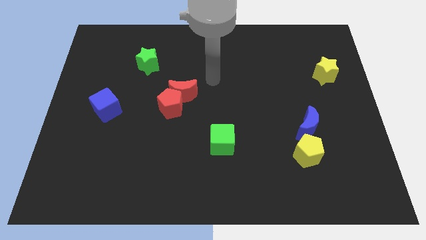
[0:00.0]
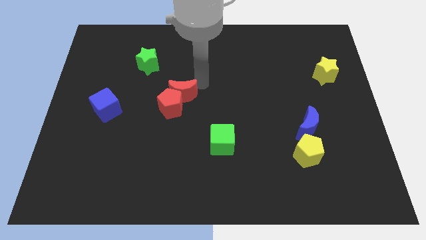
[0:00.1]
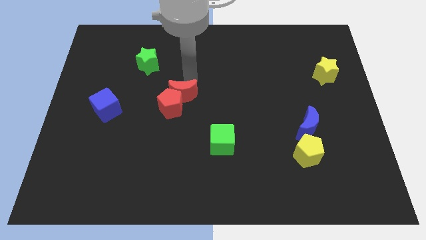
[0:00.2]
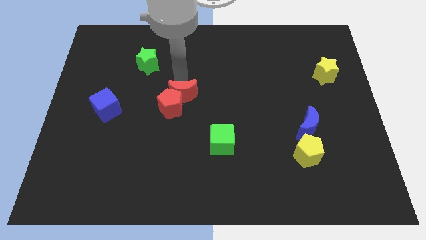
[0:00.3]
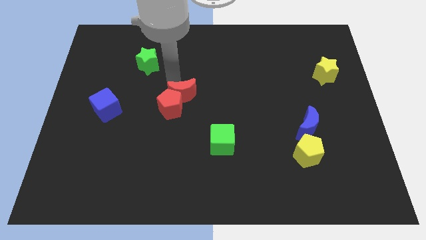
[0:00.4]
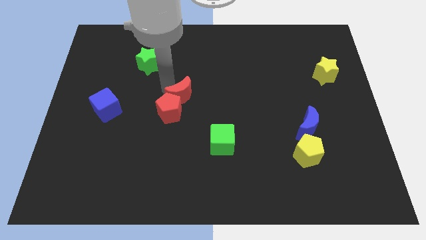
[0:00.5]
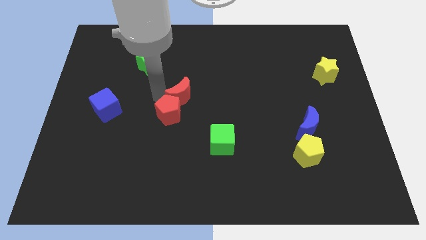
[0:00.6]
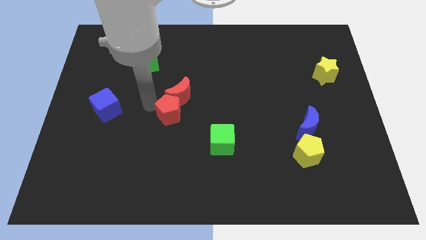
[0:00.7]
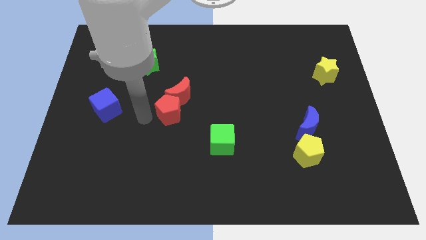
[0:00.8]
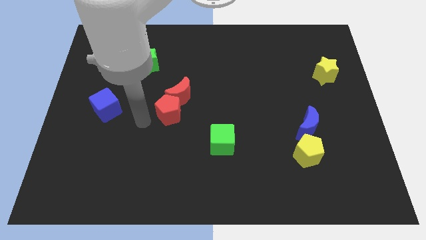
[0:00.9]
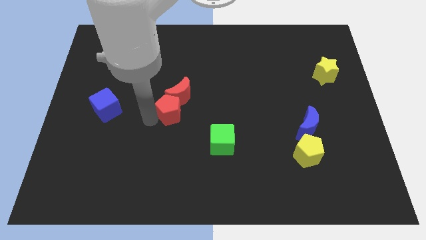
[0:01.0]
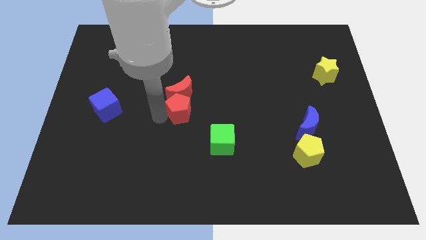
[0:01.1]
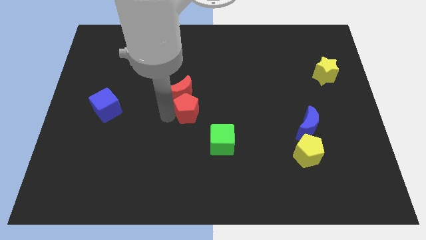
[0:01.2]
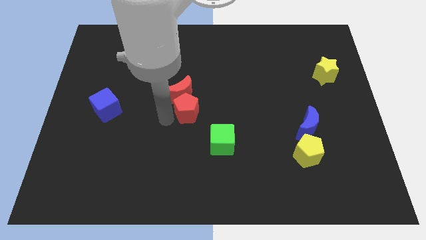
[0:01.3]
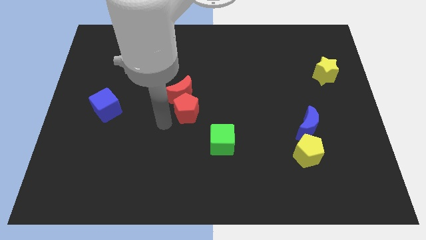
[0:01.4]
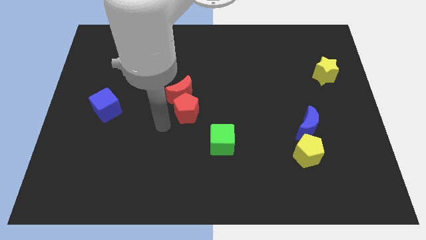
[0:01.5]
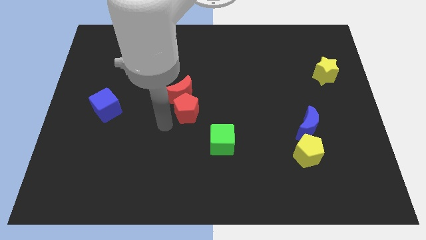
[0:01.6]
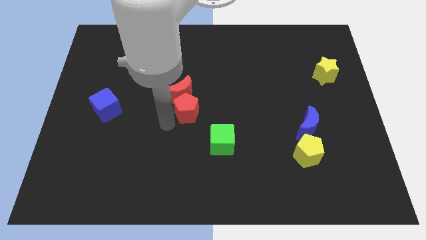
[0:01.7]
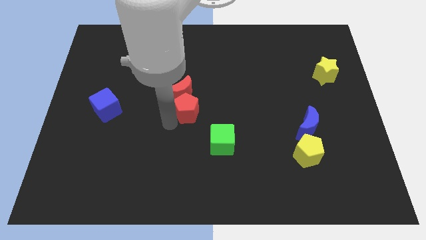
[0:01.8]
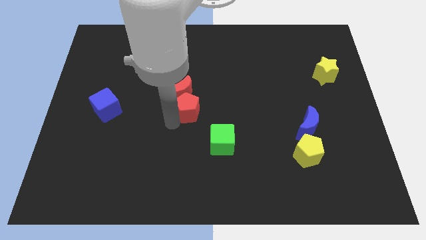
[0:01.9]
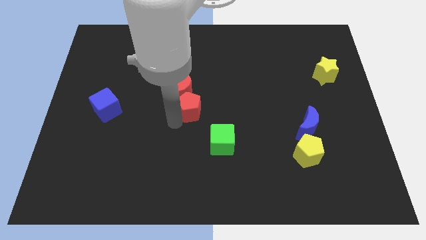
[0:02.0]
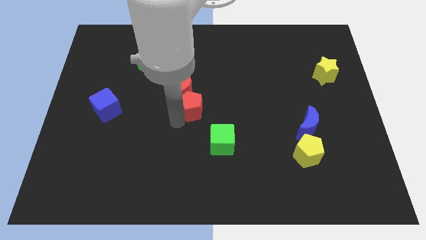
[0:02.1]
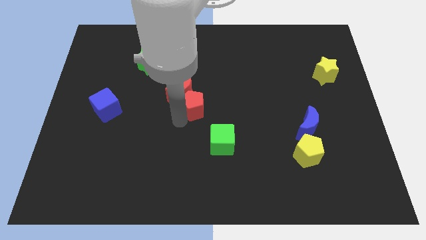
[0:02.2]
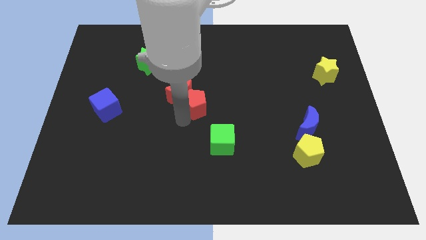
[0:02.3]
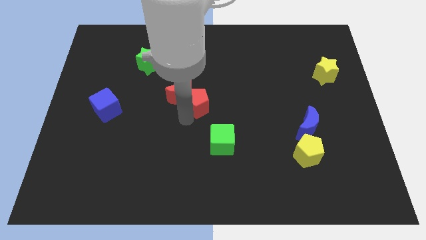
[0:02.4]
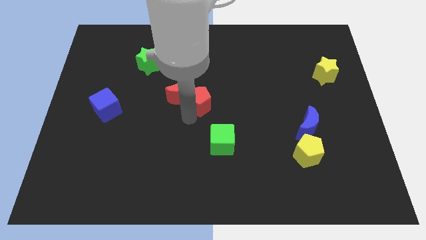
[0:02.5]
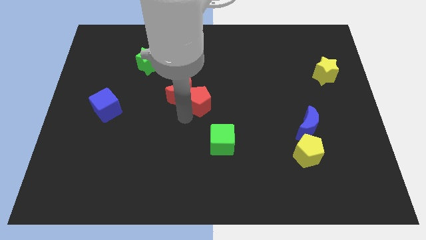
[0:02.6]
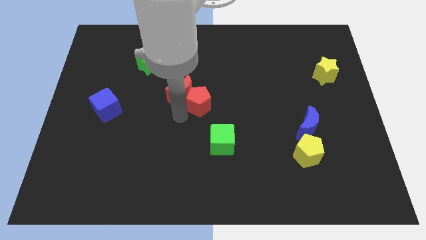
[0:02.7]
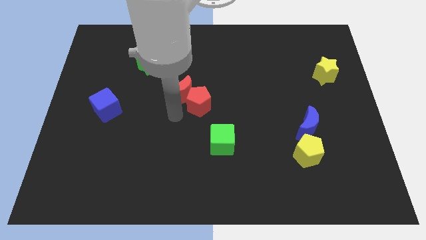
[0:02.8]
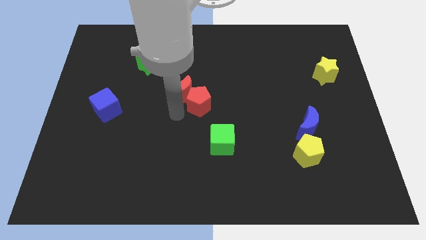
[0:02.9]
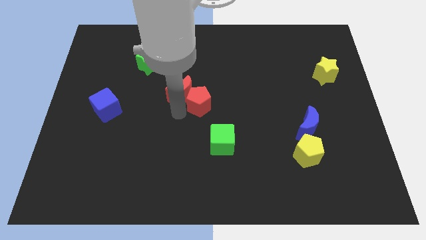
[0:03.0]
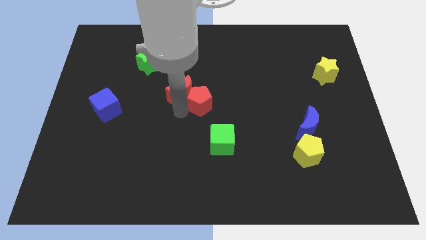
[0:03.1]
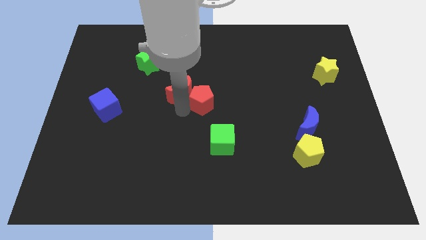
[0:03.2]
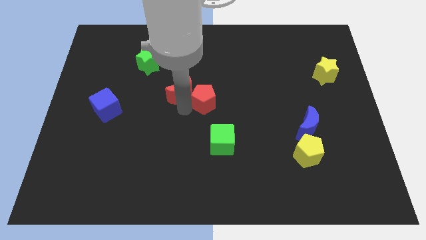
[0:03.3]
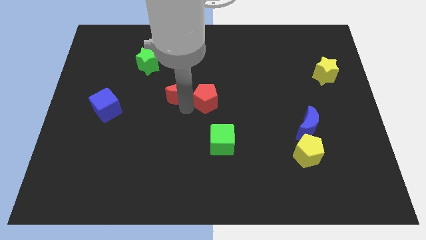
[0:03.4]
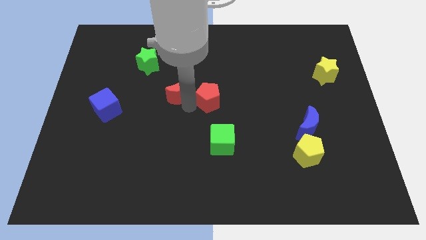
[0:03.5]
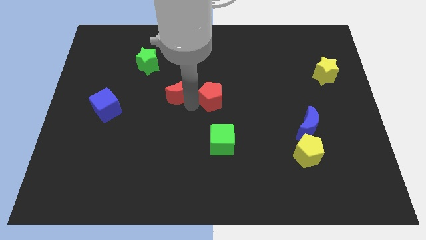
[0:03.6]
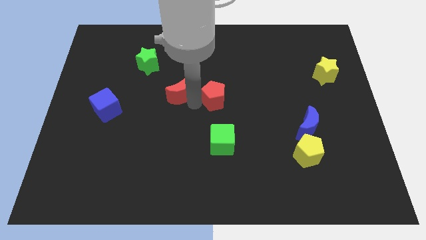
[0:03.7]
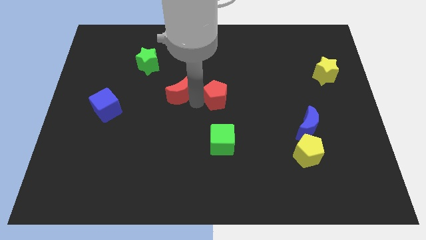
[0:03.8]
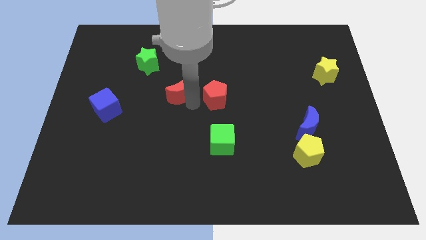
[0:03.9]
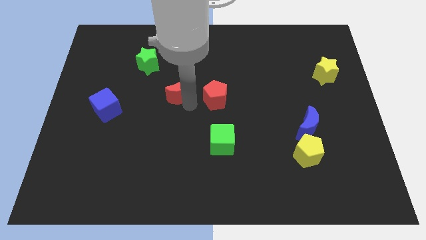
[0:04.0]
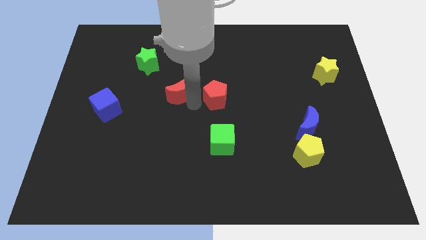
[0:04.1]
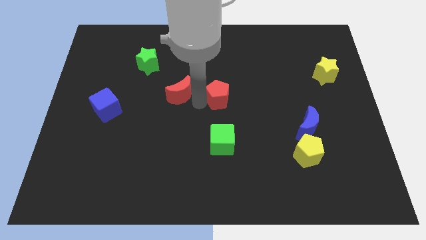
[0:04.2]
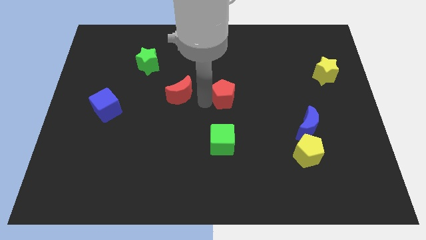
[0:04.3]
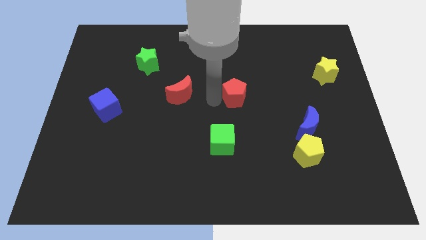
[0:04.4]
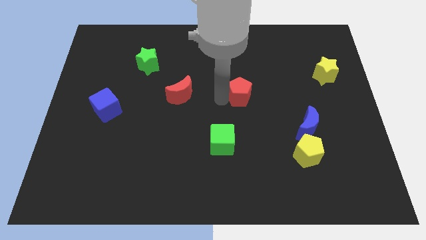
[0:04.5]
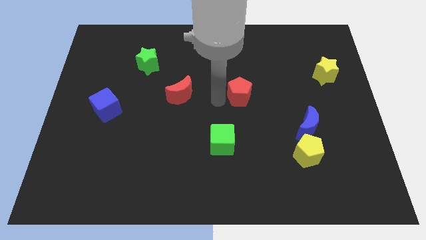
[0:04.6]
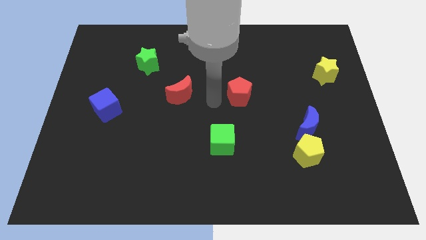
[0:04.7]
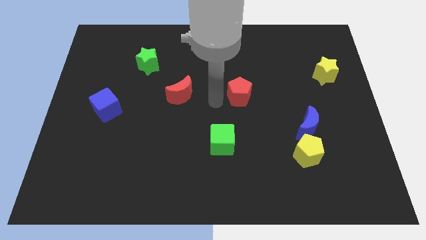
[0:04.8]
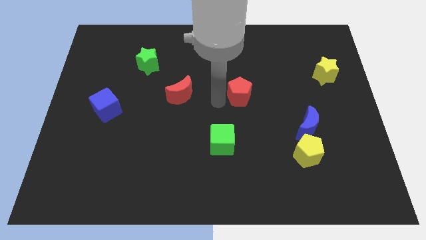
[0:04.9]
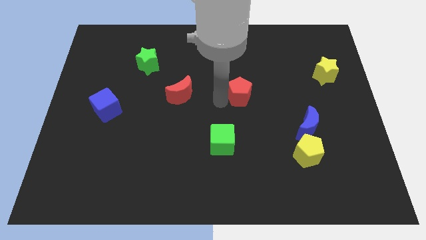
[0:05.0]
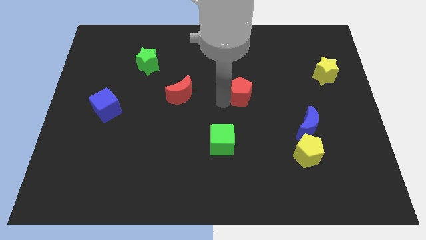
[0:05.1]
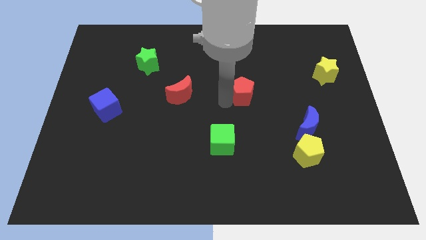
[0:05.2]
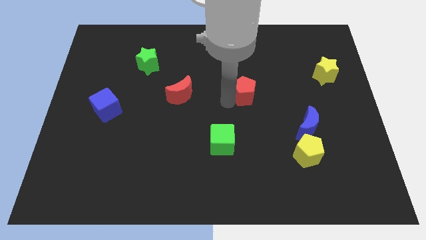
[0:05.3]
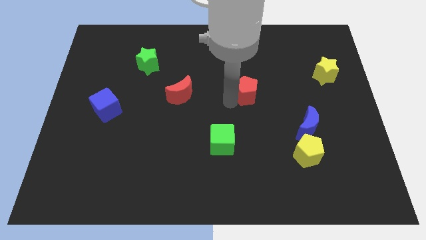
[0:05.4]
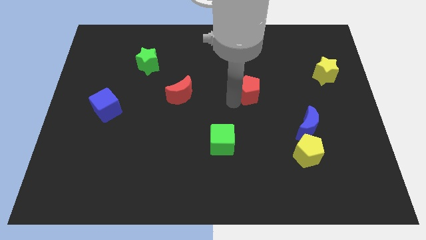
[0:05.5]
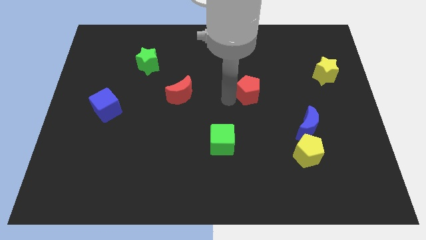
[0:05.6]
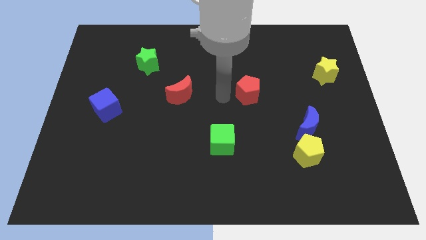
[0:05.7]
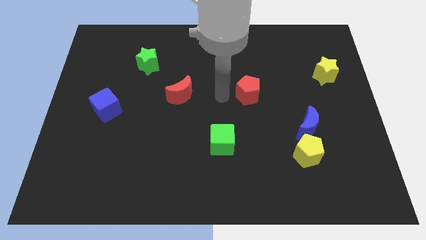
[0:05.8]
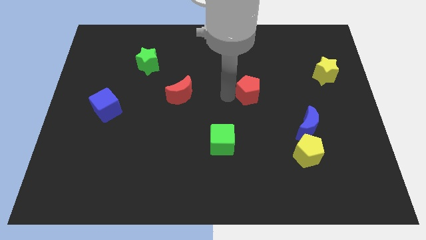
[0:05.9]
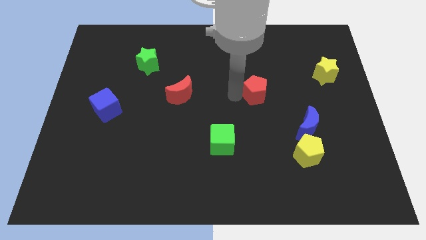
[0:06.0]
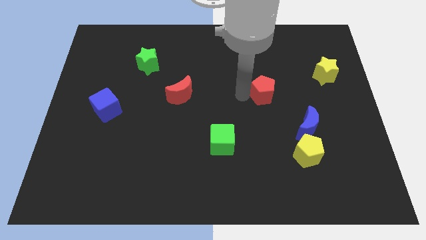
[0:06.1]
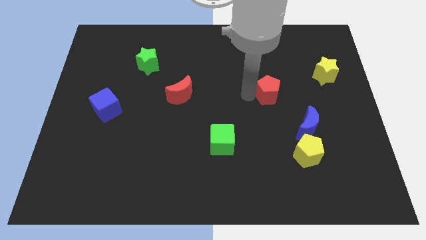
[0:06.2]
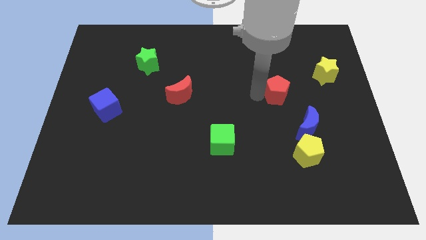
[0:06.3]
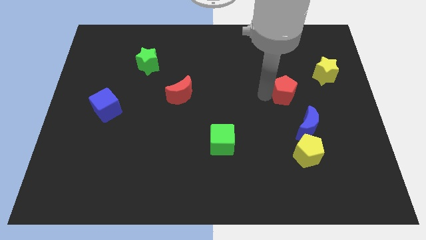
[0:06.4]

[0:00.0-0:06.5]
put the red pentagon above the blue moon
